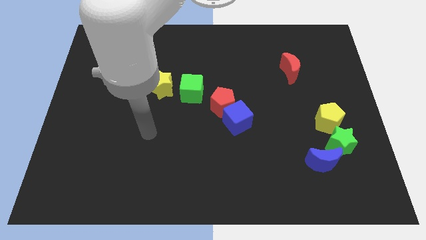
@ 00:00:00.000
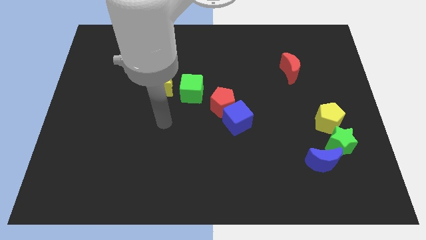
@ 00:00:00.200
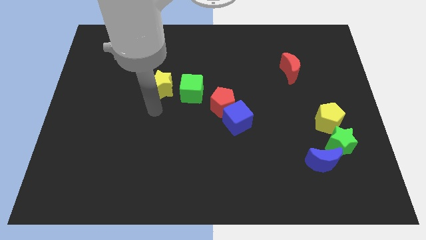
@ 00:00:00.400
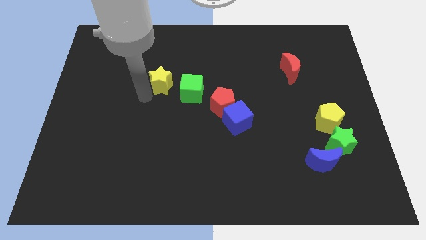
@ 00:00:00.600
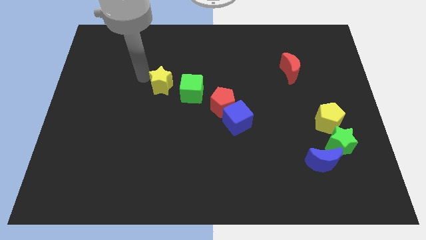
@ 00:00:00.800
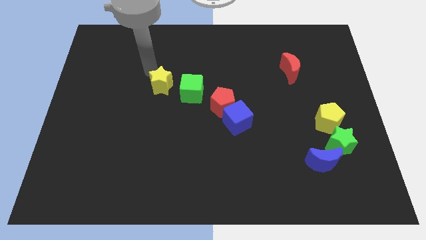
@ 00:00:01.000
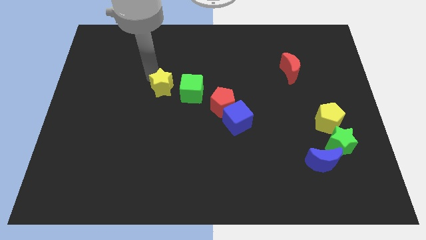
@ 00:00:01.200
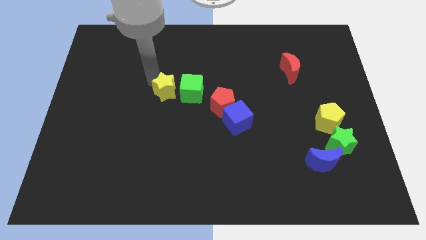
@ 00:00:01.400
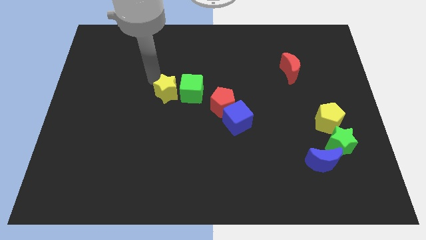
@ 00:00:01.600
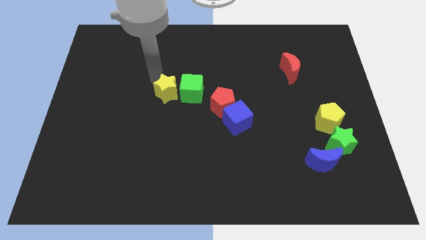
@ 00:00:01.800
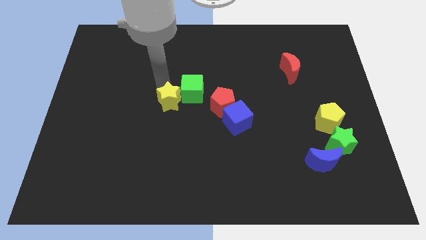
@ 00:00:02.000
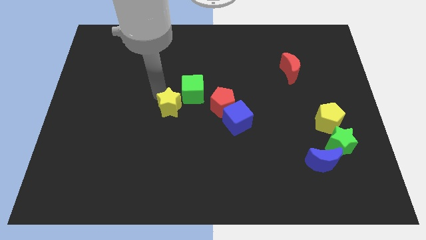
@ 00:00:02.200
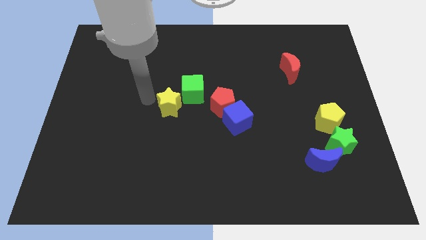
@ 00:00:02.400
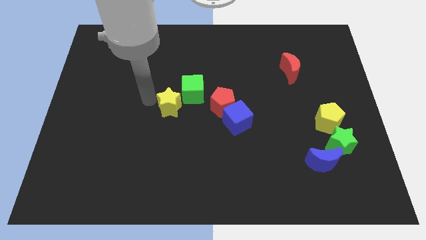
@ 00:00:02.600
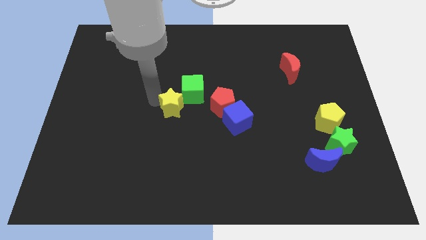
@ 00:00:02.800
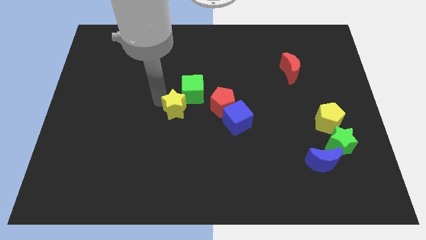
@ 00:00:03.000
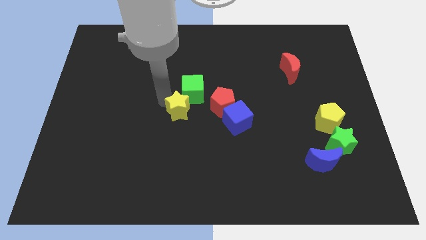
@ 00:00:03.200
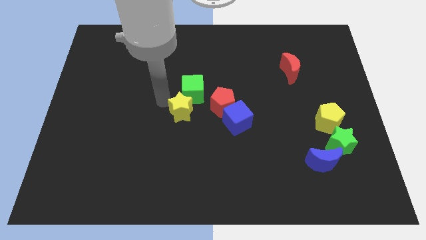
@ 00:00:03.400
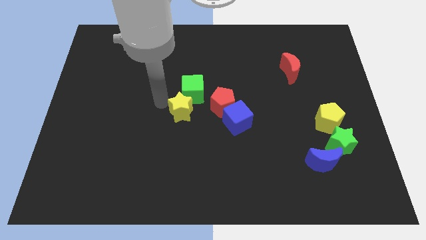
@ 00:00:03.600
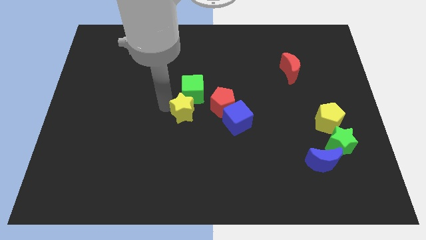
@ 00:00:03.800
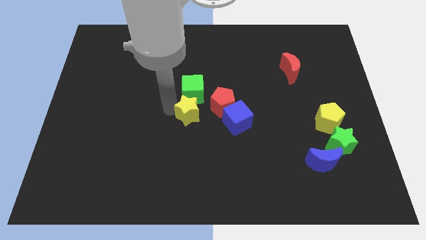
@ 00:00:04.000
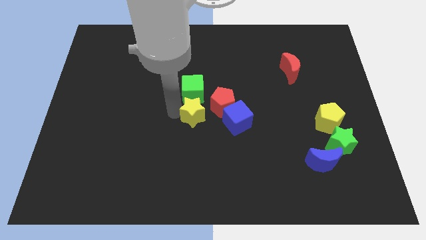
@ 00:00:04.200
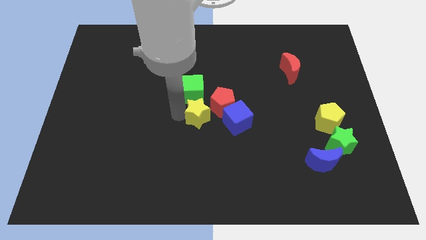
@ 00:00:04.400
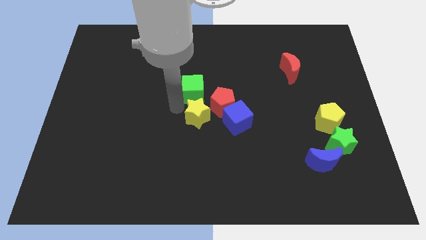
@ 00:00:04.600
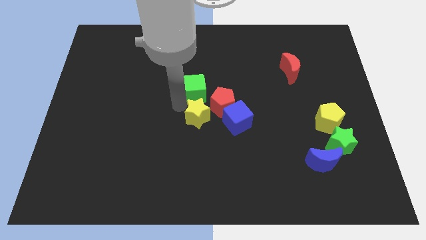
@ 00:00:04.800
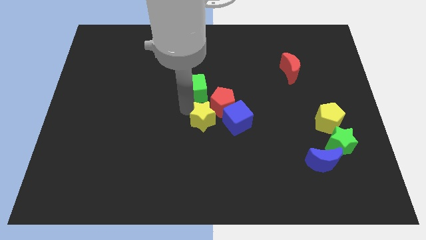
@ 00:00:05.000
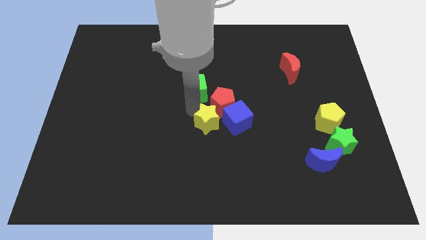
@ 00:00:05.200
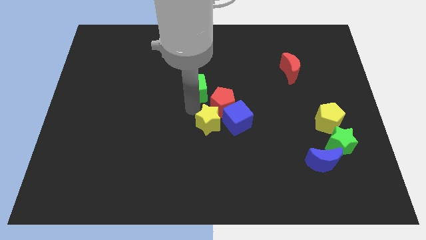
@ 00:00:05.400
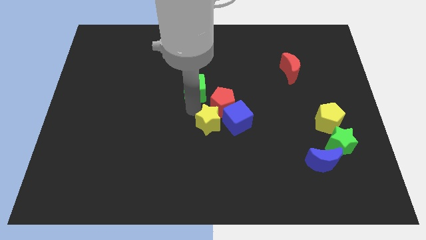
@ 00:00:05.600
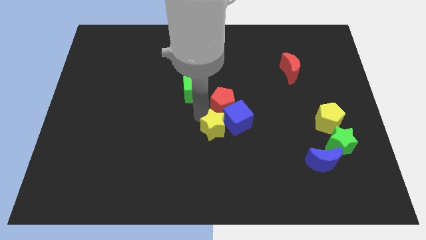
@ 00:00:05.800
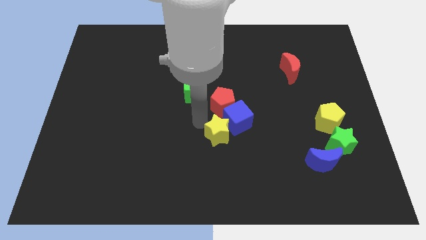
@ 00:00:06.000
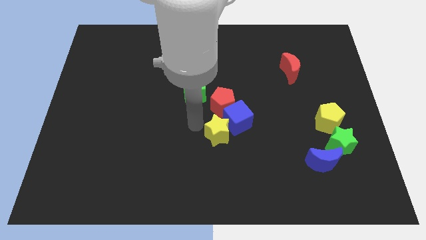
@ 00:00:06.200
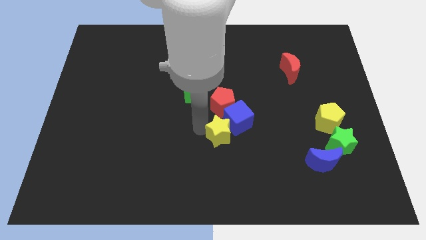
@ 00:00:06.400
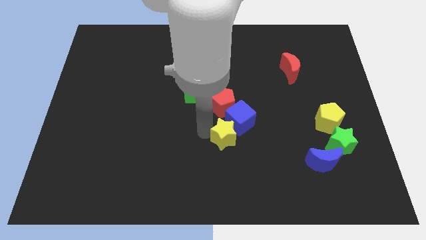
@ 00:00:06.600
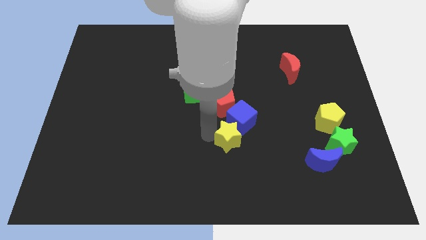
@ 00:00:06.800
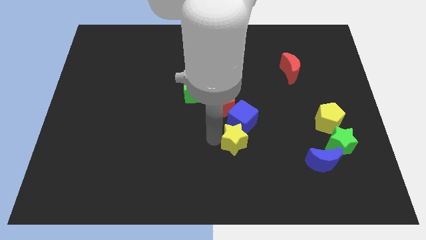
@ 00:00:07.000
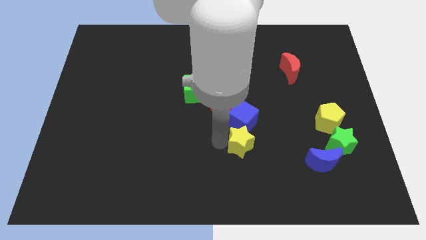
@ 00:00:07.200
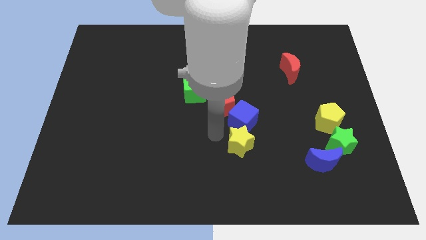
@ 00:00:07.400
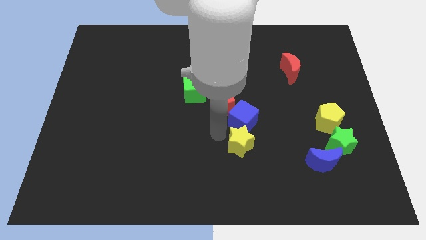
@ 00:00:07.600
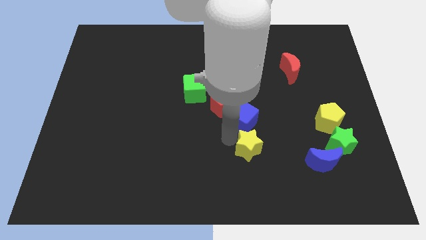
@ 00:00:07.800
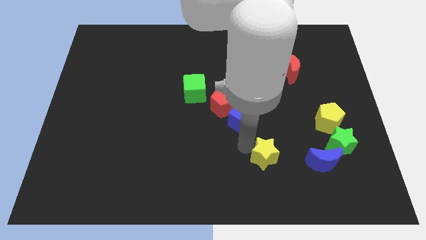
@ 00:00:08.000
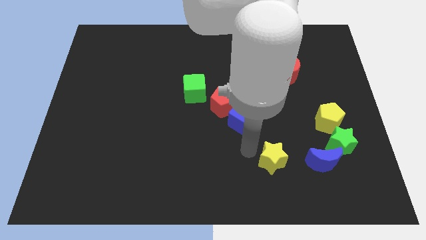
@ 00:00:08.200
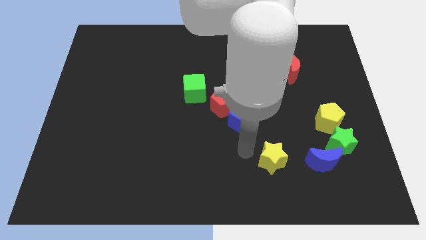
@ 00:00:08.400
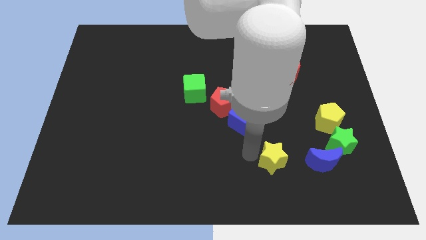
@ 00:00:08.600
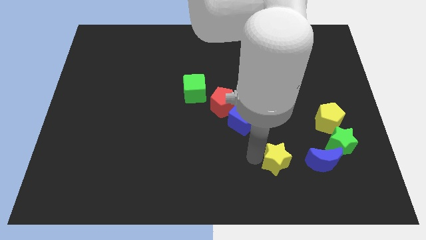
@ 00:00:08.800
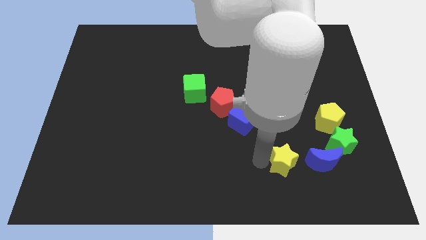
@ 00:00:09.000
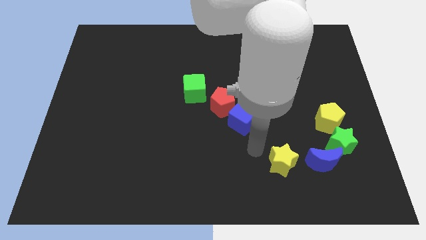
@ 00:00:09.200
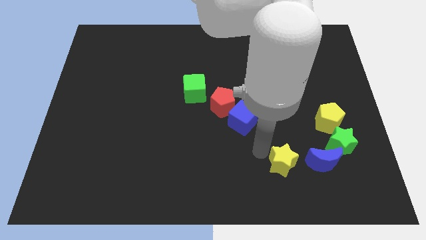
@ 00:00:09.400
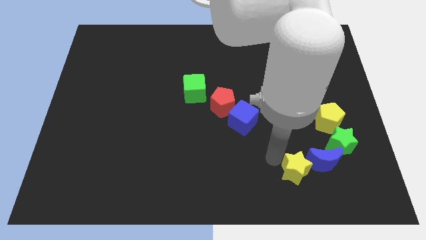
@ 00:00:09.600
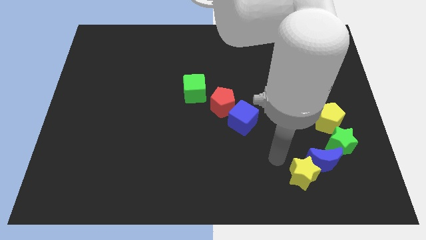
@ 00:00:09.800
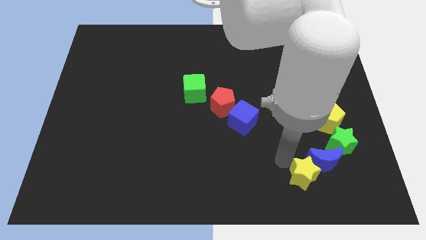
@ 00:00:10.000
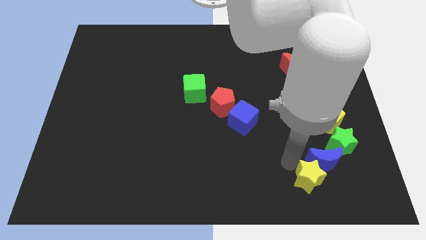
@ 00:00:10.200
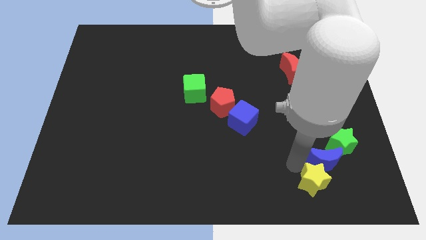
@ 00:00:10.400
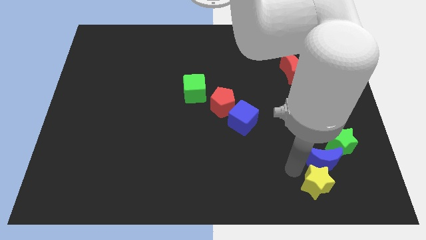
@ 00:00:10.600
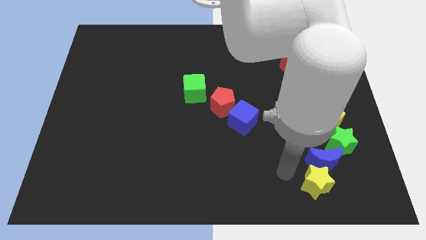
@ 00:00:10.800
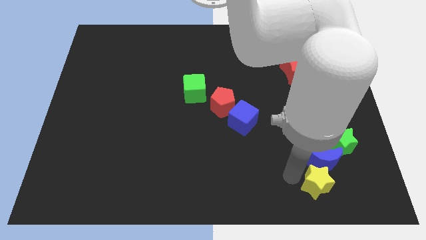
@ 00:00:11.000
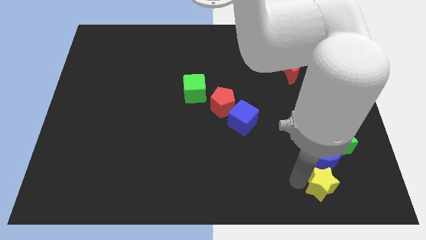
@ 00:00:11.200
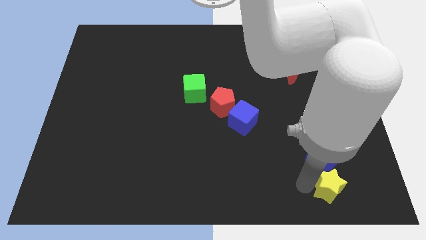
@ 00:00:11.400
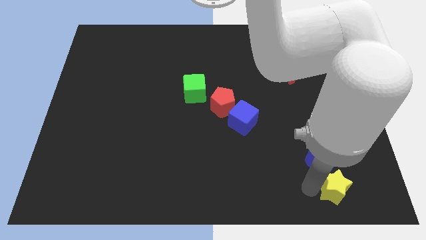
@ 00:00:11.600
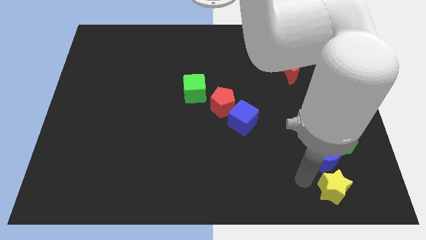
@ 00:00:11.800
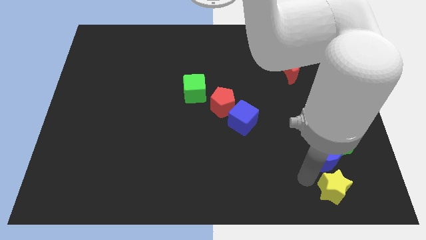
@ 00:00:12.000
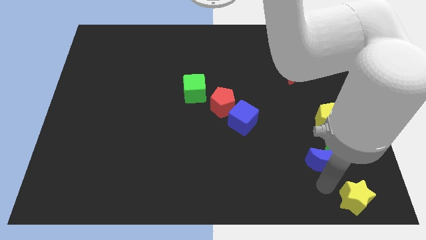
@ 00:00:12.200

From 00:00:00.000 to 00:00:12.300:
move the yellow star to the bottom right
